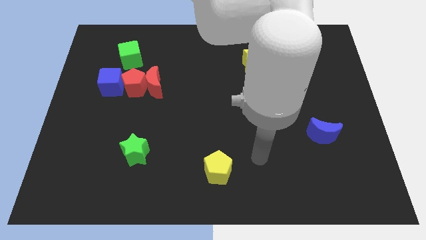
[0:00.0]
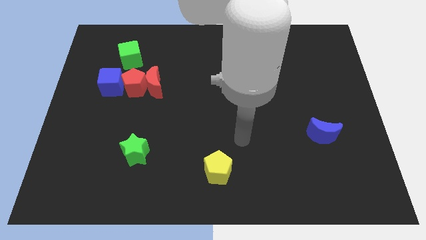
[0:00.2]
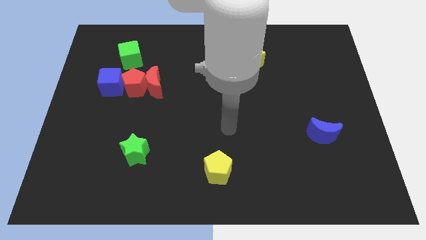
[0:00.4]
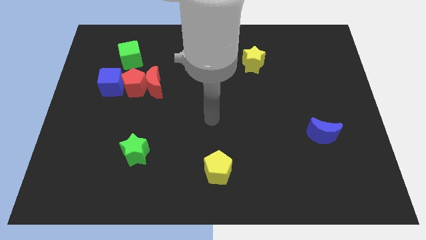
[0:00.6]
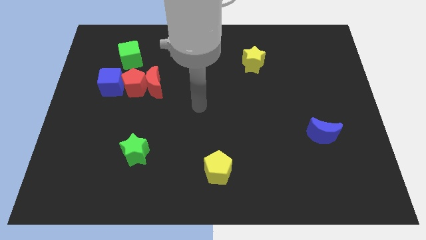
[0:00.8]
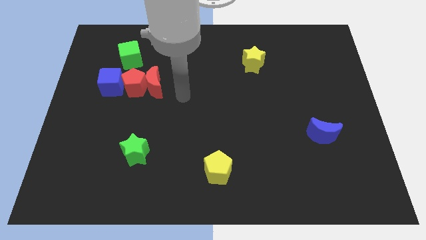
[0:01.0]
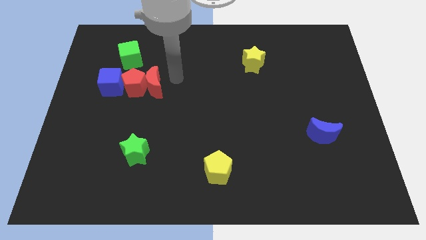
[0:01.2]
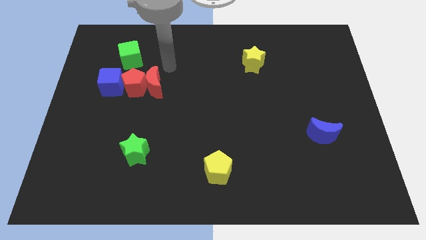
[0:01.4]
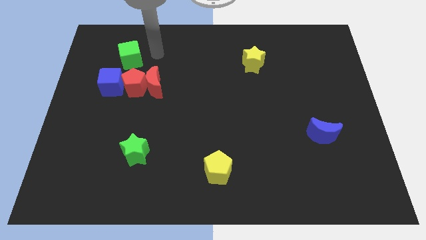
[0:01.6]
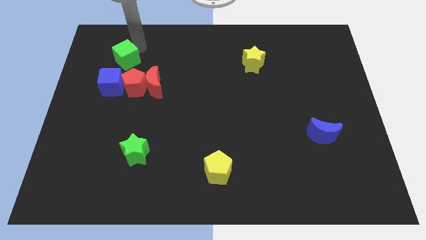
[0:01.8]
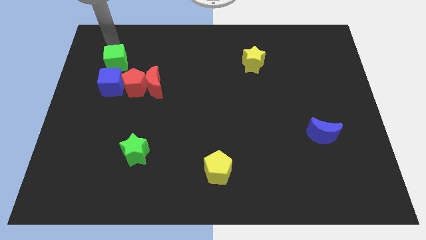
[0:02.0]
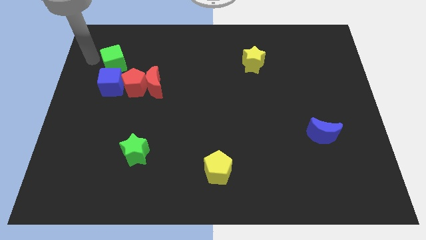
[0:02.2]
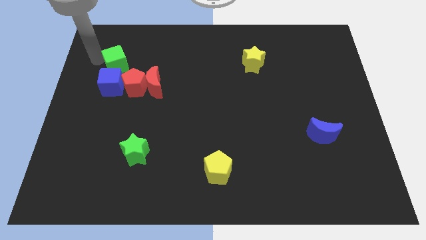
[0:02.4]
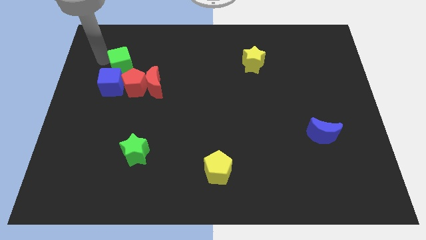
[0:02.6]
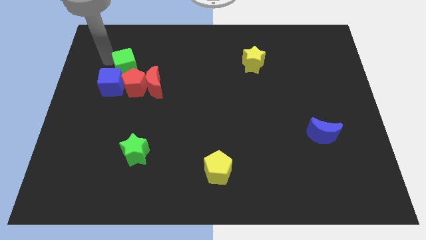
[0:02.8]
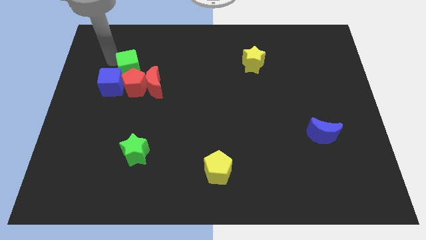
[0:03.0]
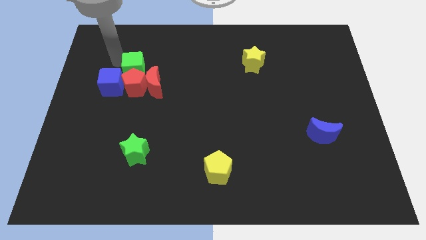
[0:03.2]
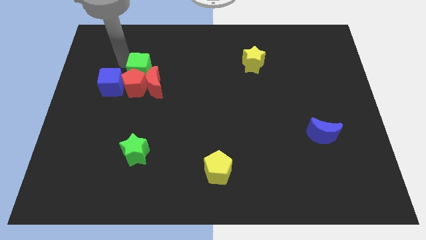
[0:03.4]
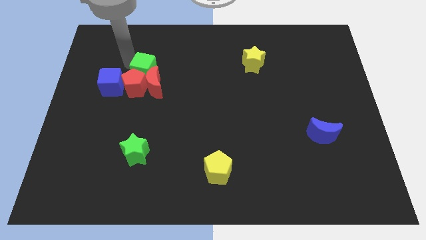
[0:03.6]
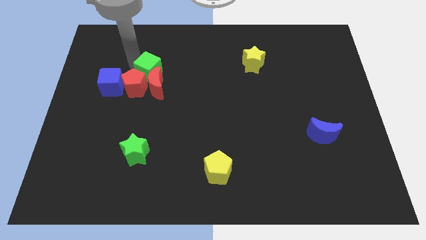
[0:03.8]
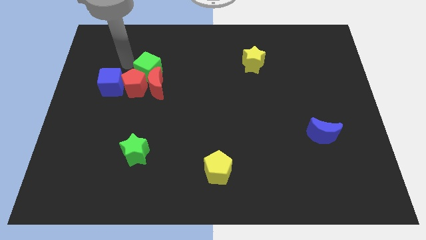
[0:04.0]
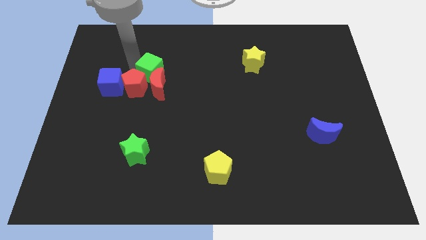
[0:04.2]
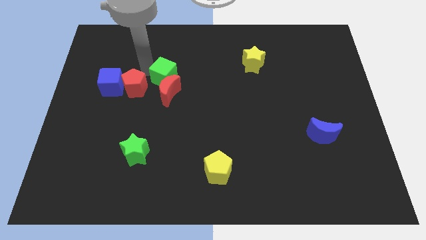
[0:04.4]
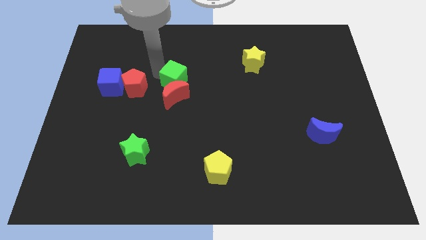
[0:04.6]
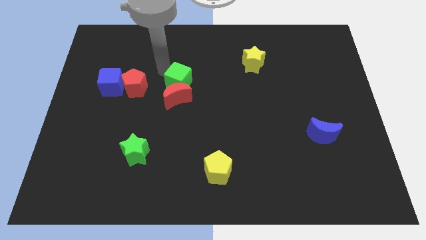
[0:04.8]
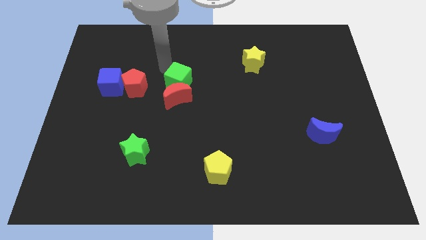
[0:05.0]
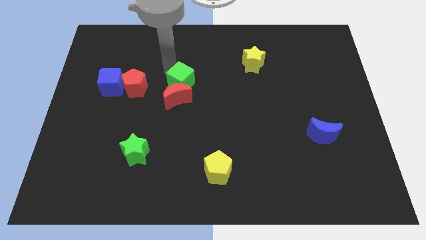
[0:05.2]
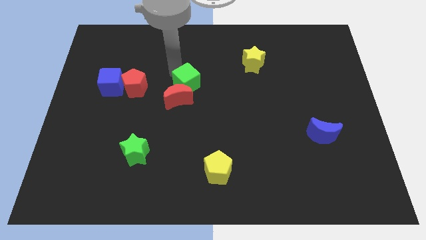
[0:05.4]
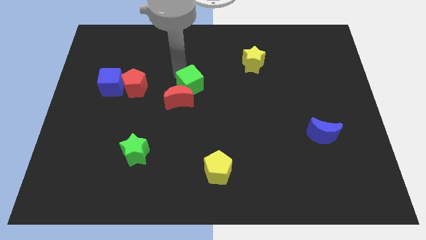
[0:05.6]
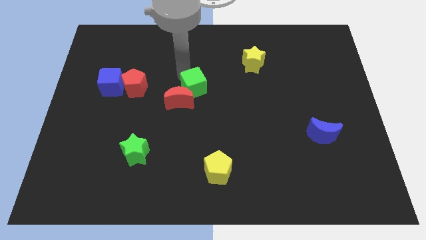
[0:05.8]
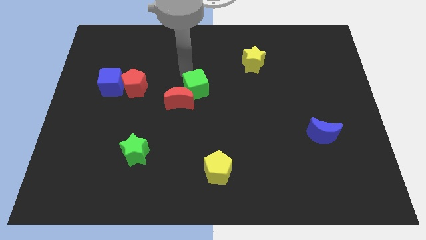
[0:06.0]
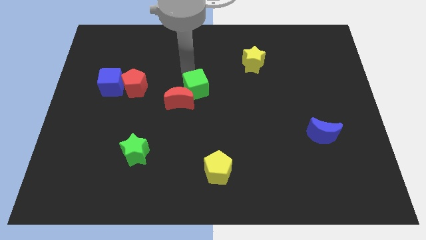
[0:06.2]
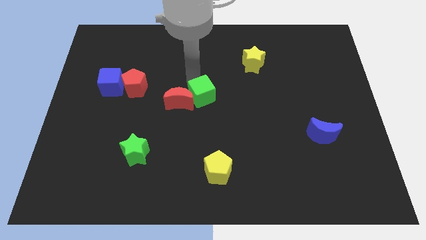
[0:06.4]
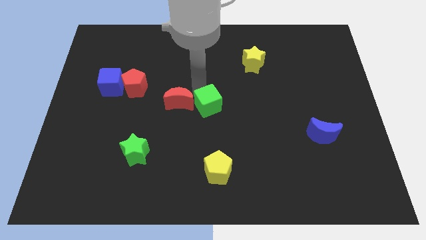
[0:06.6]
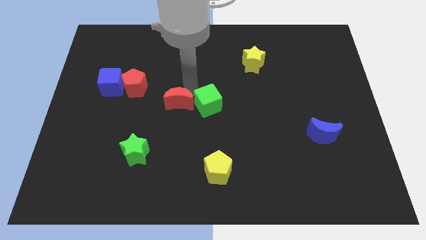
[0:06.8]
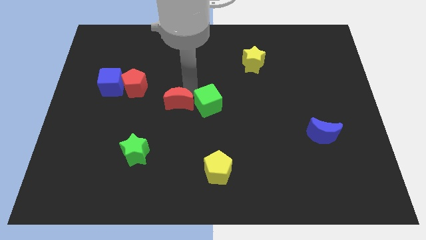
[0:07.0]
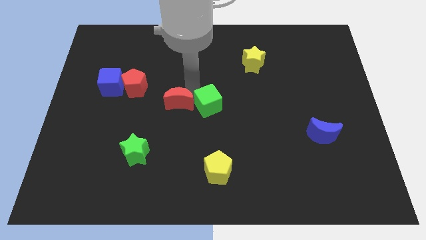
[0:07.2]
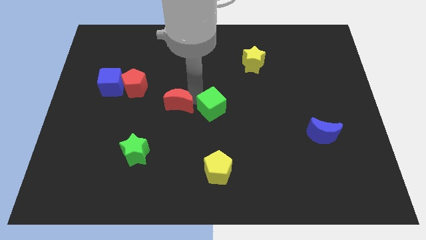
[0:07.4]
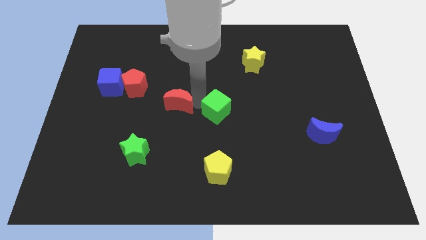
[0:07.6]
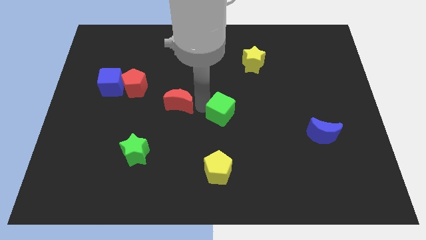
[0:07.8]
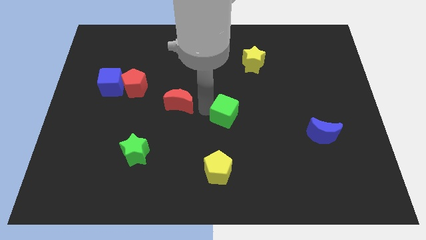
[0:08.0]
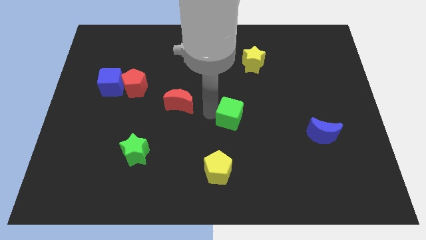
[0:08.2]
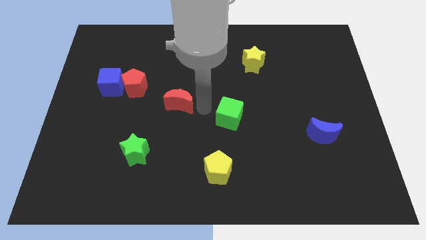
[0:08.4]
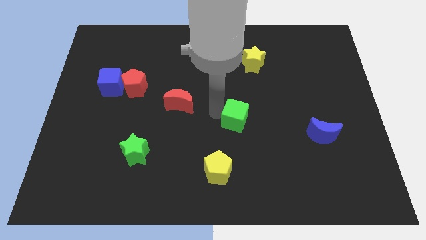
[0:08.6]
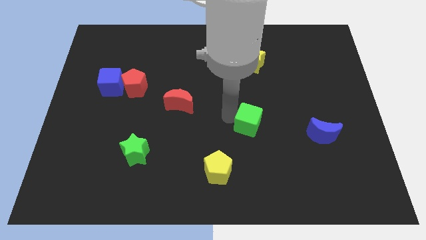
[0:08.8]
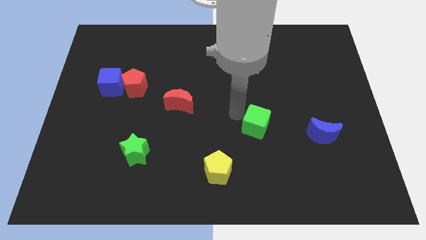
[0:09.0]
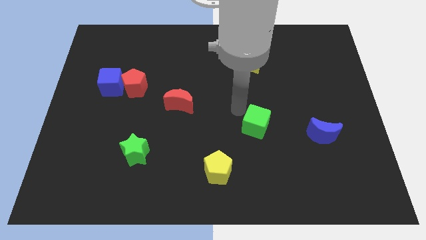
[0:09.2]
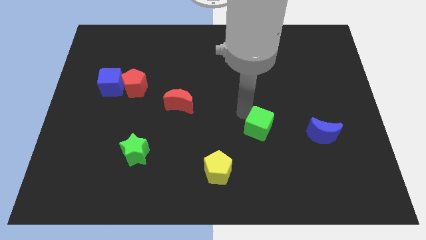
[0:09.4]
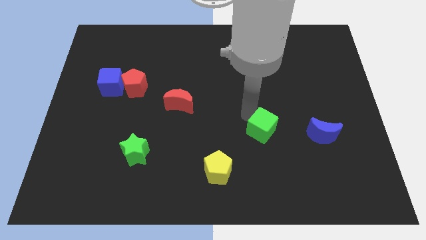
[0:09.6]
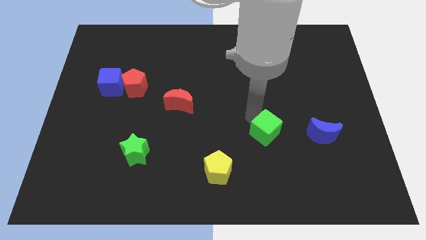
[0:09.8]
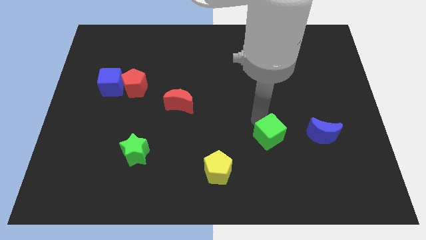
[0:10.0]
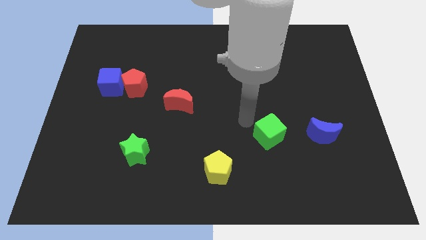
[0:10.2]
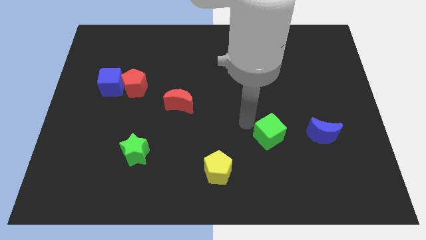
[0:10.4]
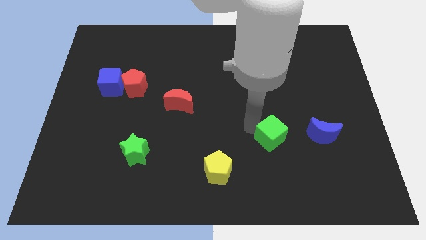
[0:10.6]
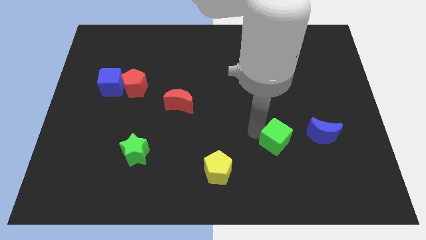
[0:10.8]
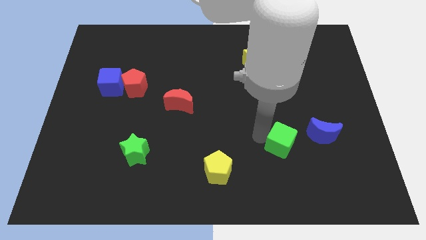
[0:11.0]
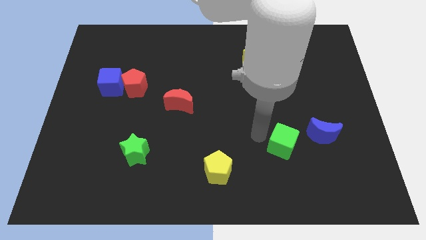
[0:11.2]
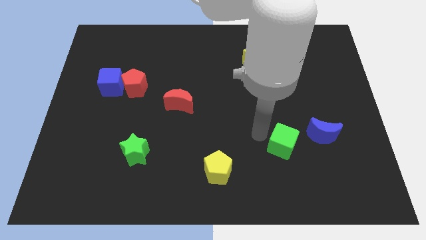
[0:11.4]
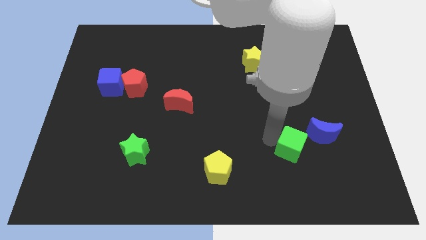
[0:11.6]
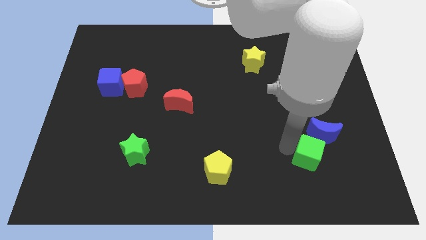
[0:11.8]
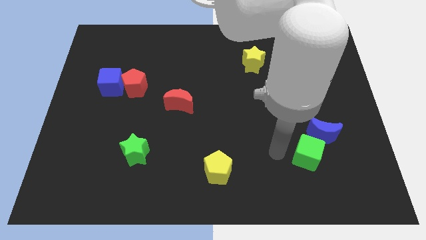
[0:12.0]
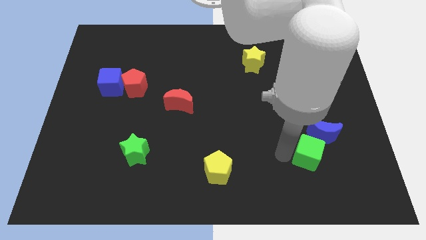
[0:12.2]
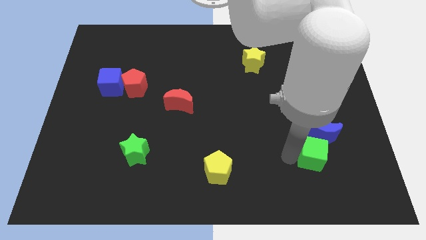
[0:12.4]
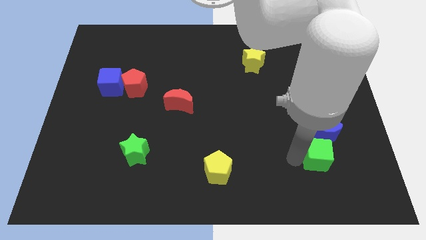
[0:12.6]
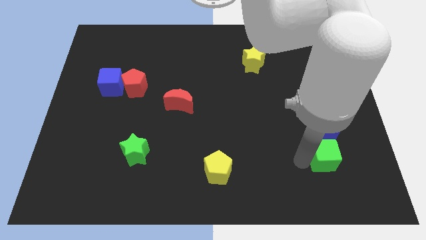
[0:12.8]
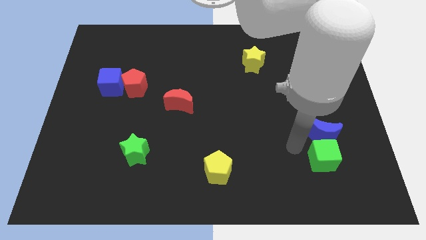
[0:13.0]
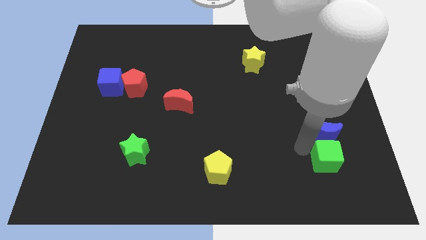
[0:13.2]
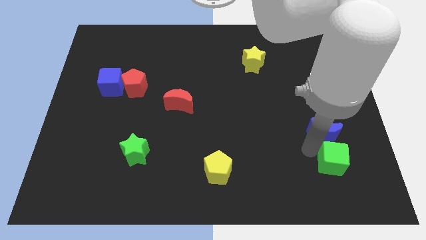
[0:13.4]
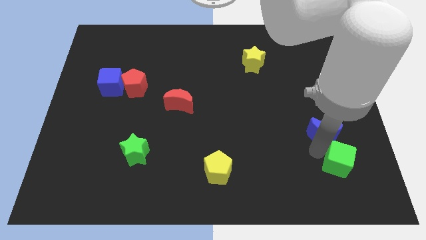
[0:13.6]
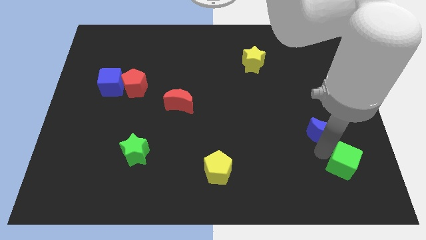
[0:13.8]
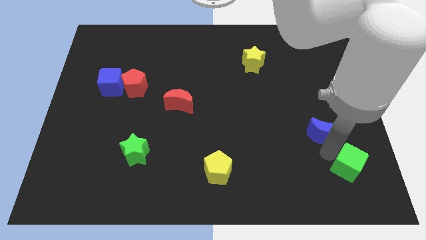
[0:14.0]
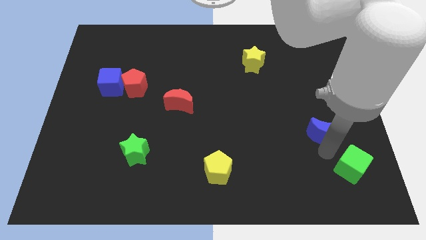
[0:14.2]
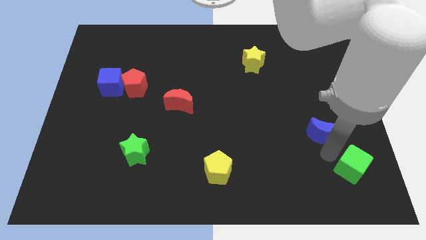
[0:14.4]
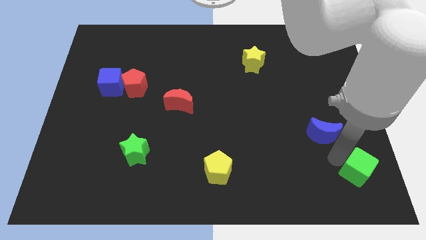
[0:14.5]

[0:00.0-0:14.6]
slide the green cube to the bottom right corner
